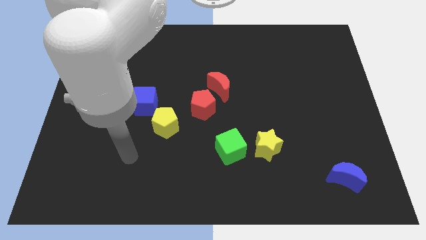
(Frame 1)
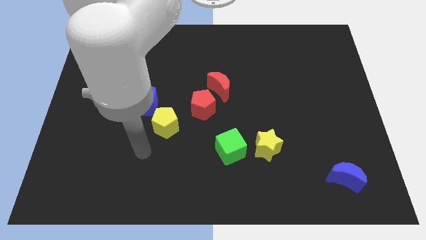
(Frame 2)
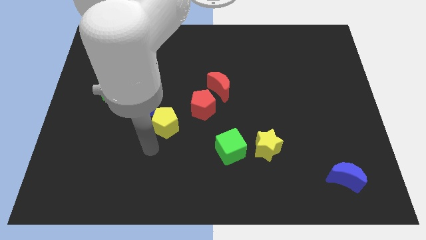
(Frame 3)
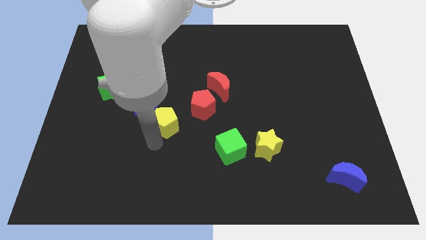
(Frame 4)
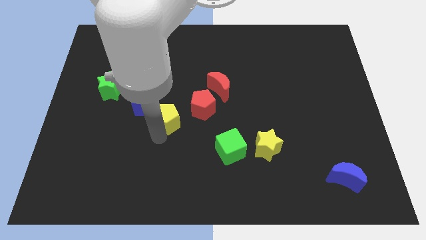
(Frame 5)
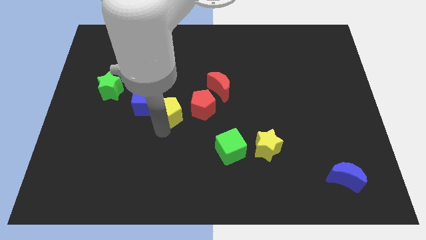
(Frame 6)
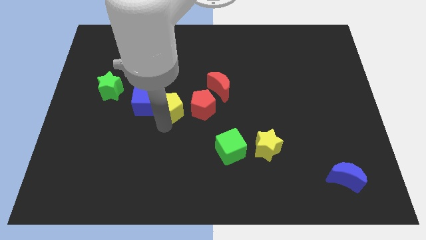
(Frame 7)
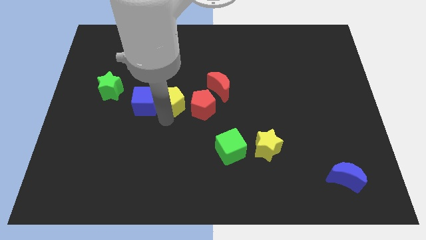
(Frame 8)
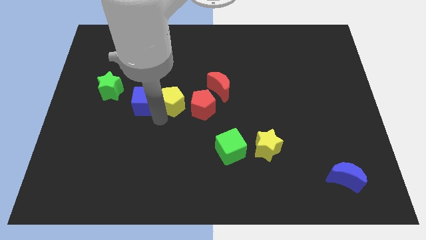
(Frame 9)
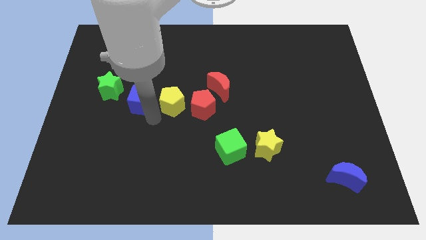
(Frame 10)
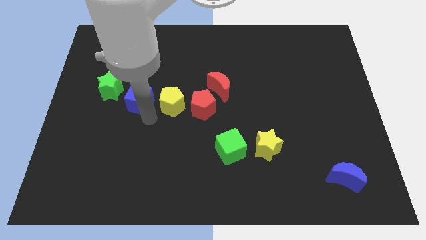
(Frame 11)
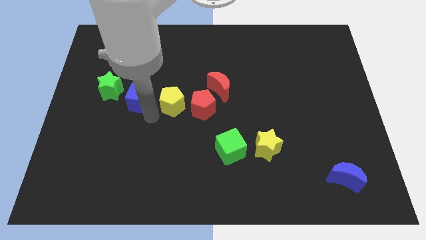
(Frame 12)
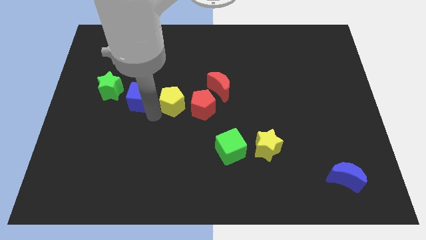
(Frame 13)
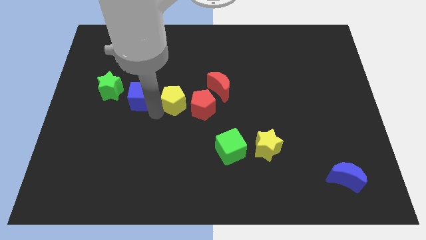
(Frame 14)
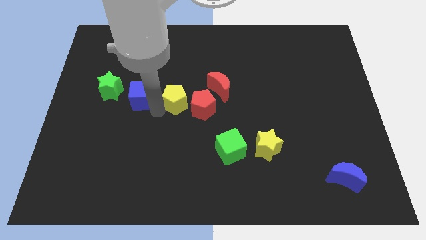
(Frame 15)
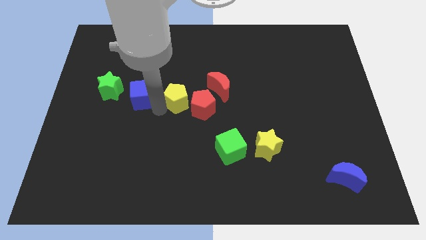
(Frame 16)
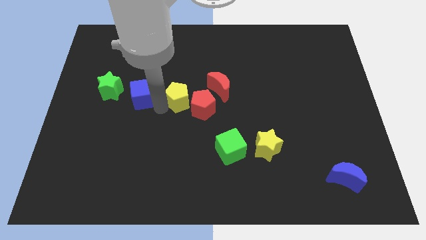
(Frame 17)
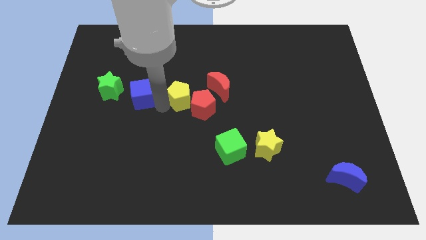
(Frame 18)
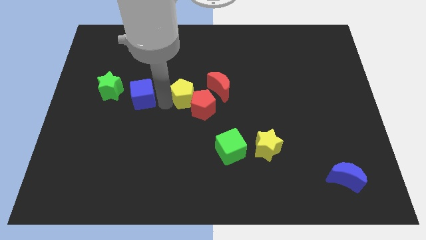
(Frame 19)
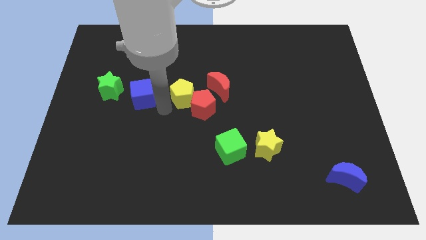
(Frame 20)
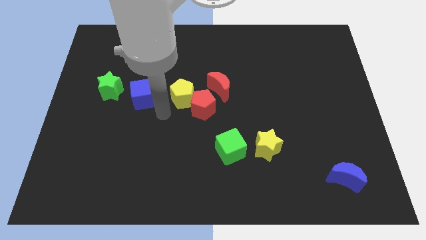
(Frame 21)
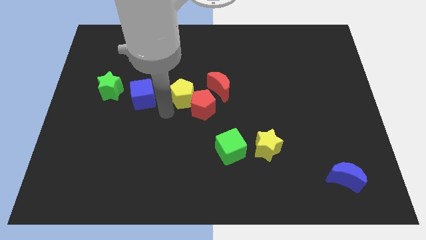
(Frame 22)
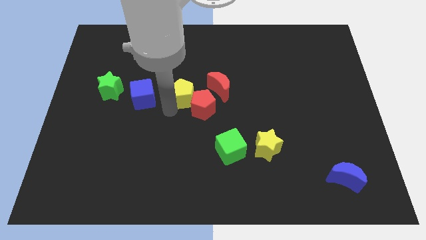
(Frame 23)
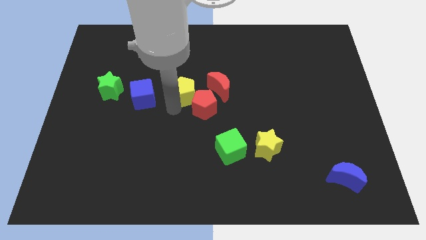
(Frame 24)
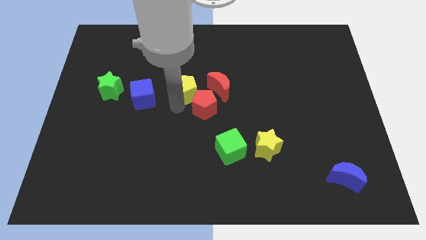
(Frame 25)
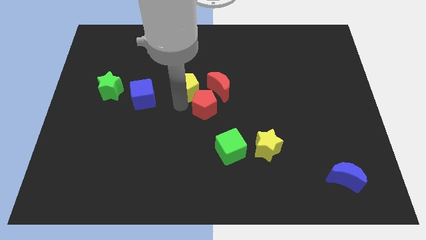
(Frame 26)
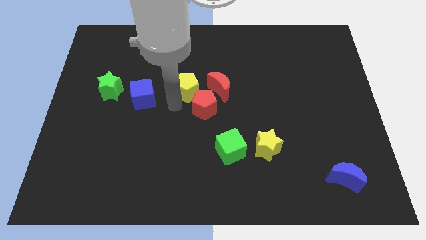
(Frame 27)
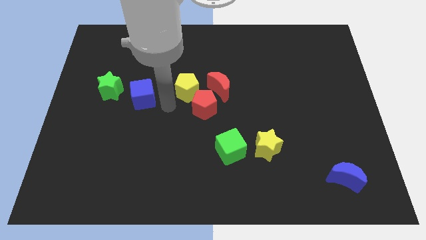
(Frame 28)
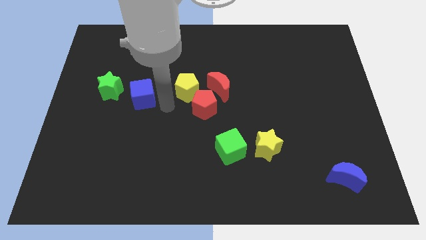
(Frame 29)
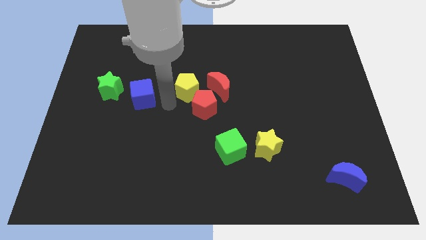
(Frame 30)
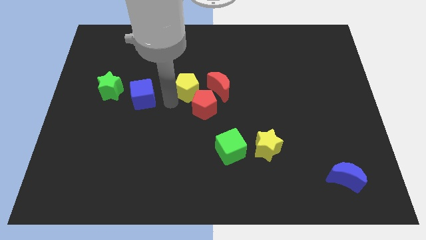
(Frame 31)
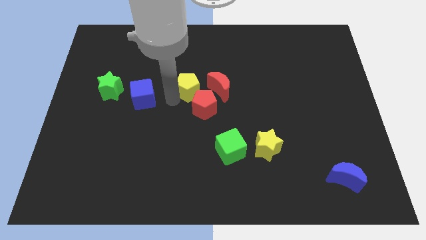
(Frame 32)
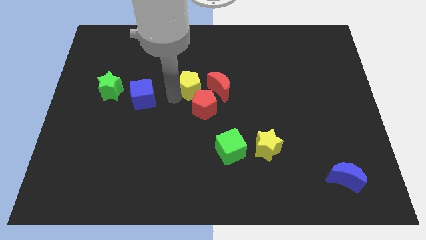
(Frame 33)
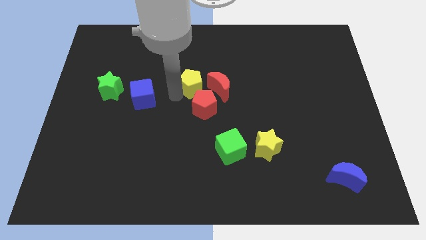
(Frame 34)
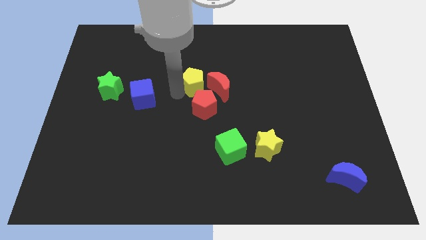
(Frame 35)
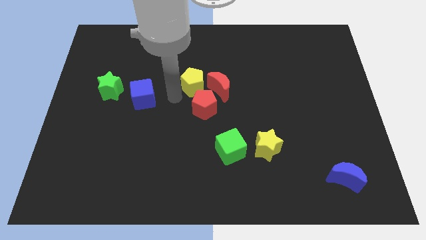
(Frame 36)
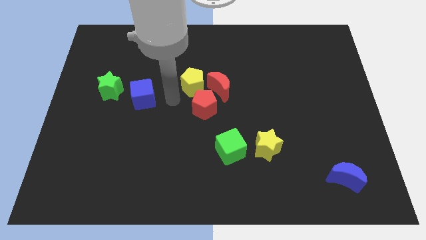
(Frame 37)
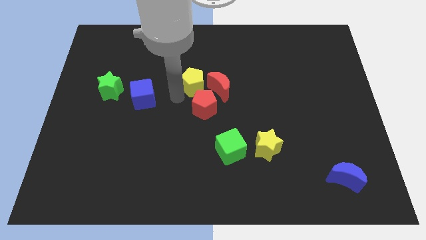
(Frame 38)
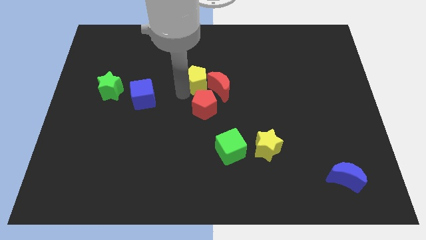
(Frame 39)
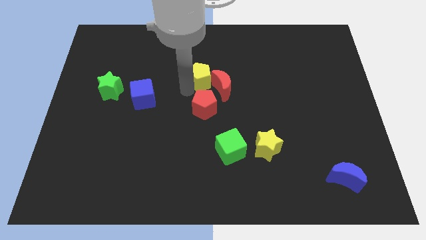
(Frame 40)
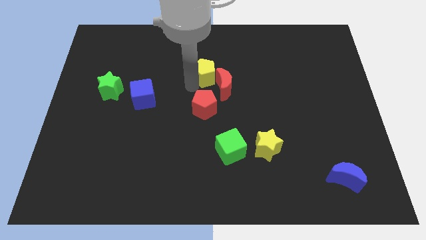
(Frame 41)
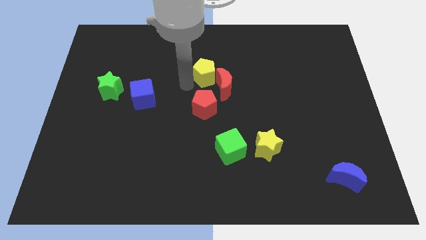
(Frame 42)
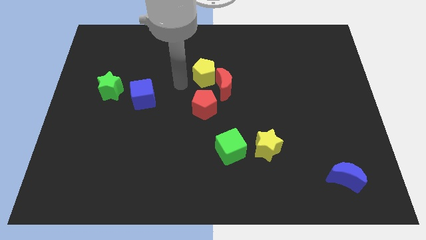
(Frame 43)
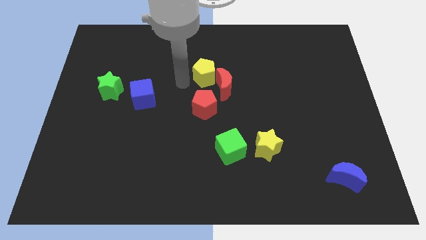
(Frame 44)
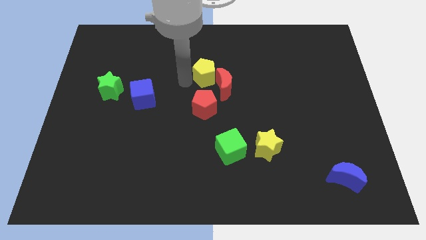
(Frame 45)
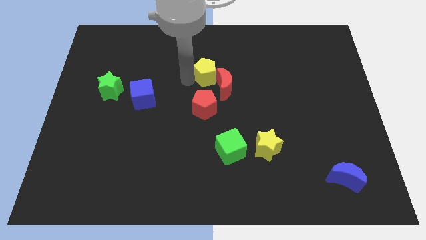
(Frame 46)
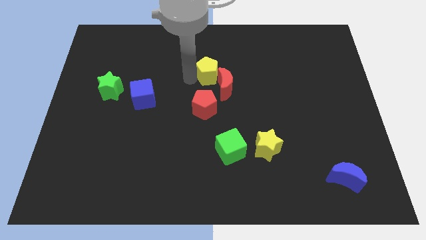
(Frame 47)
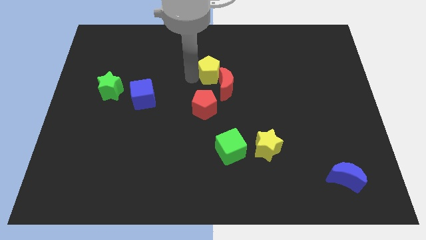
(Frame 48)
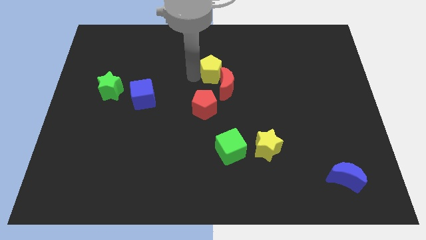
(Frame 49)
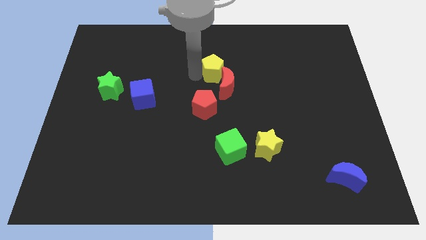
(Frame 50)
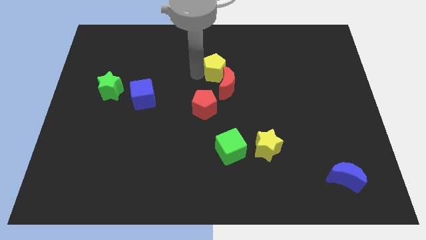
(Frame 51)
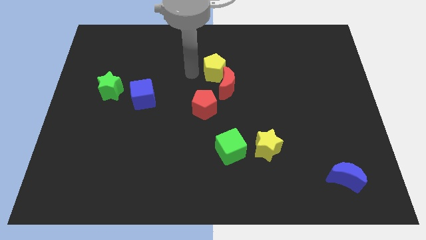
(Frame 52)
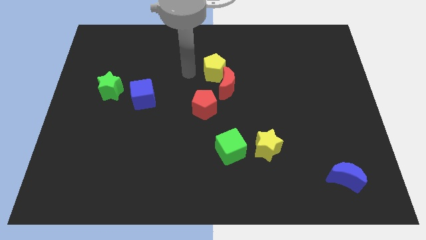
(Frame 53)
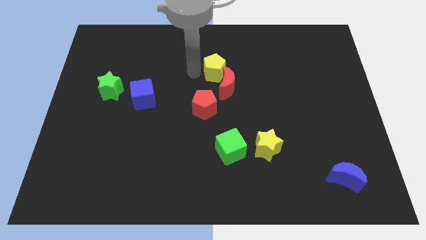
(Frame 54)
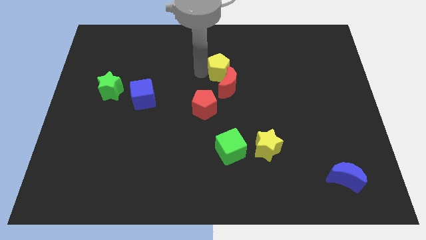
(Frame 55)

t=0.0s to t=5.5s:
move the yellow pentagon upwards and to the right diagonally

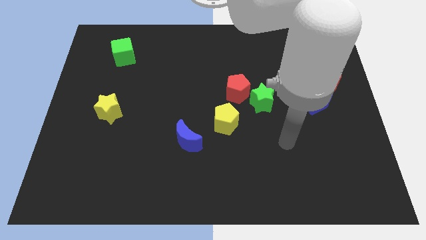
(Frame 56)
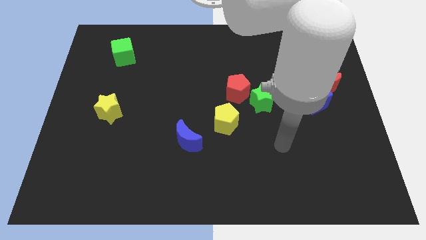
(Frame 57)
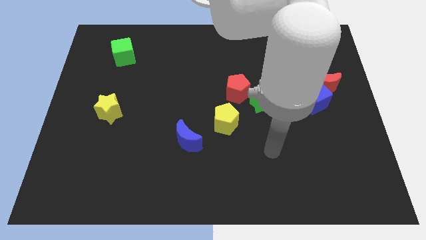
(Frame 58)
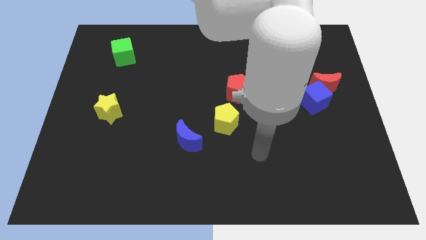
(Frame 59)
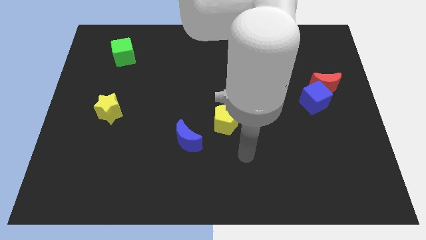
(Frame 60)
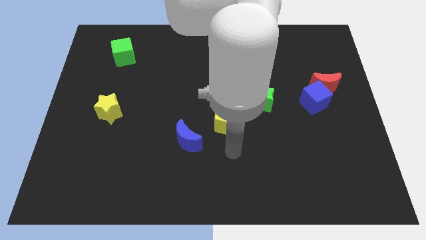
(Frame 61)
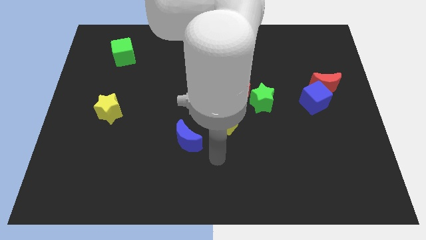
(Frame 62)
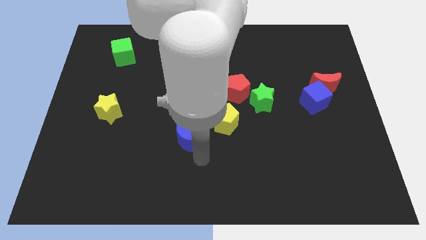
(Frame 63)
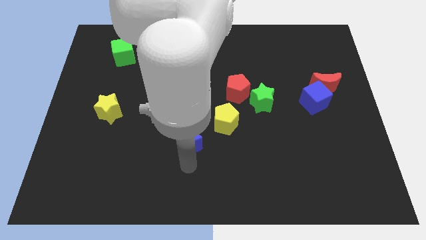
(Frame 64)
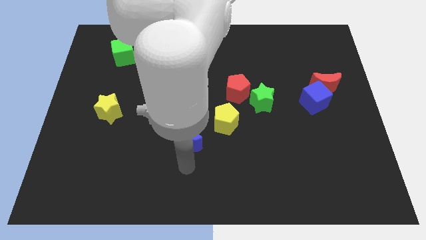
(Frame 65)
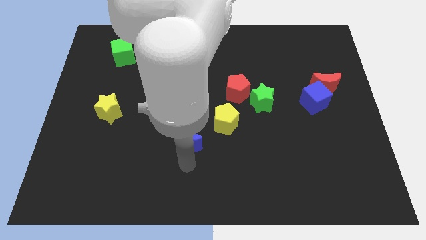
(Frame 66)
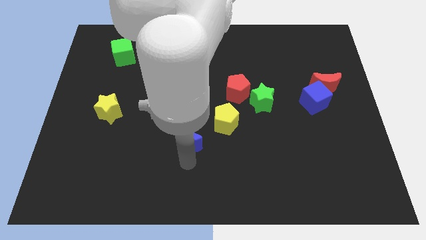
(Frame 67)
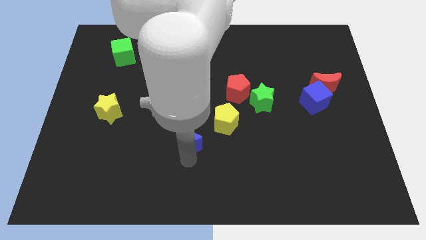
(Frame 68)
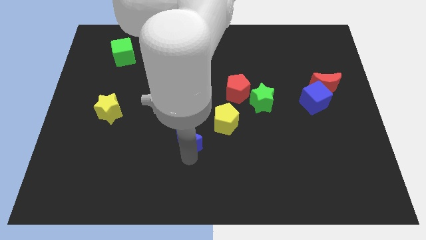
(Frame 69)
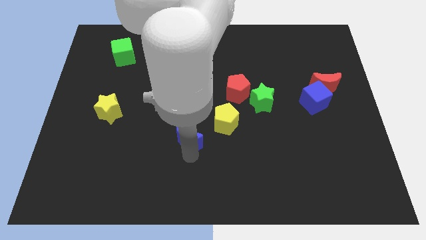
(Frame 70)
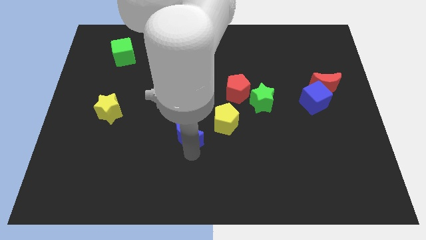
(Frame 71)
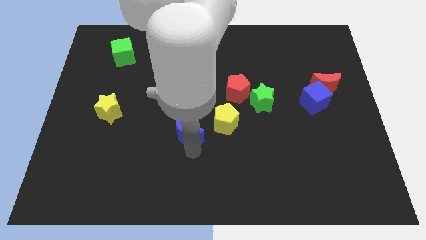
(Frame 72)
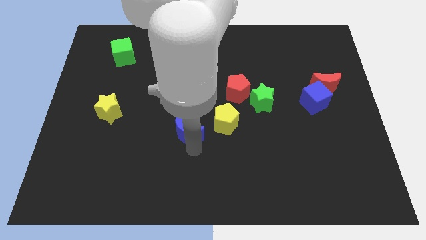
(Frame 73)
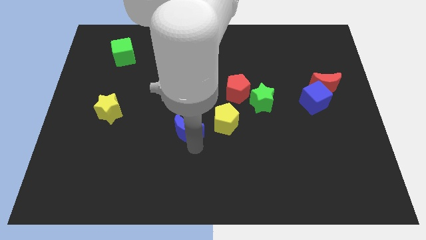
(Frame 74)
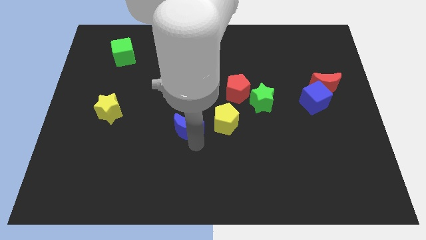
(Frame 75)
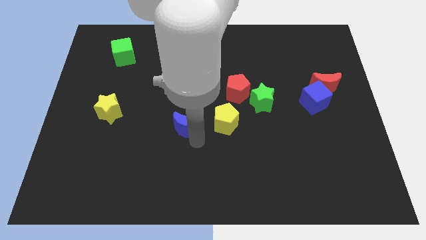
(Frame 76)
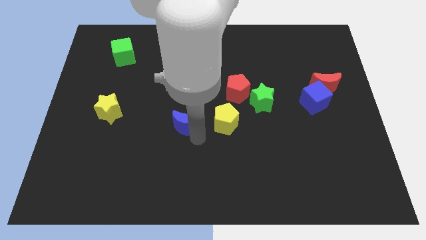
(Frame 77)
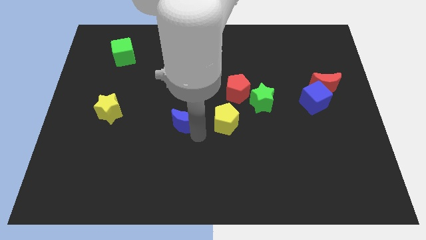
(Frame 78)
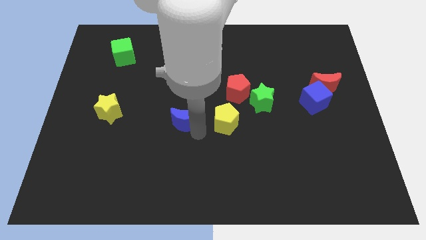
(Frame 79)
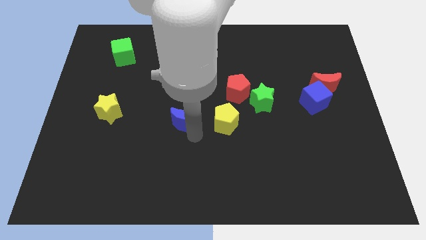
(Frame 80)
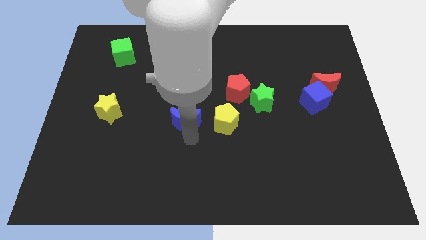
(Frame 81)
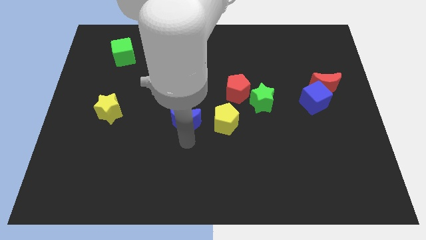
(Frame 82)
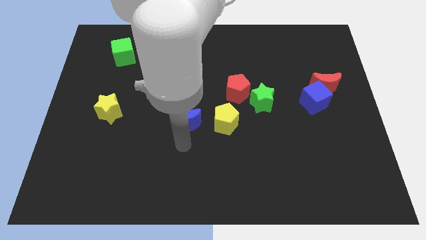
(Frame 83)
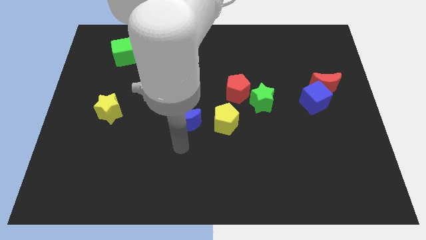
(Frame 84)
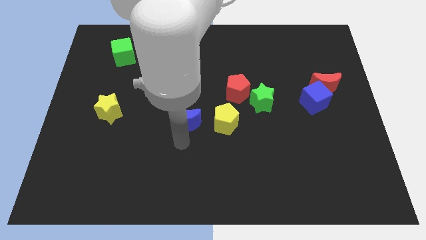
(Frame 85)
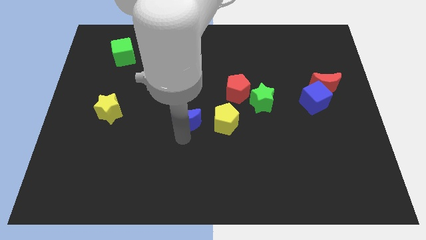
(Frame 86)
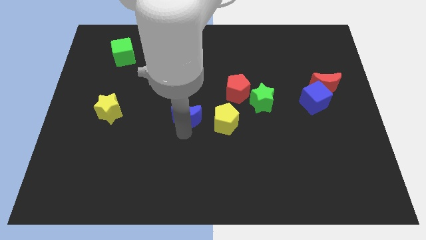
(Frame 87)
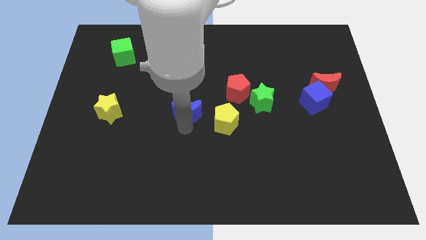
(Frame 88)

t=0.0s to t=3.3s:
push the blue moon up somewhat
